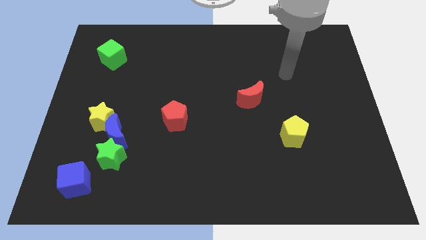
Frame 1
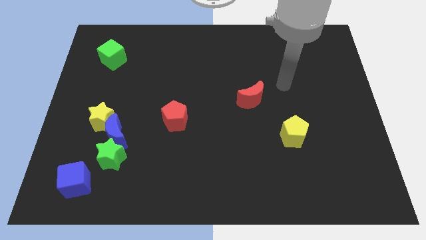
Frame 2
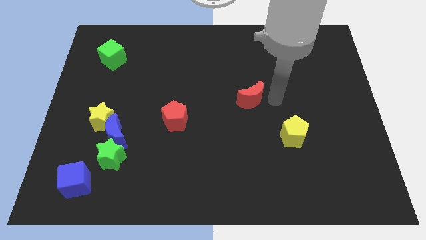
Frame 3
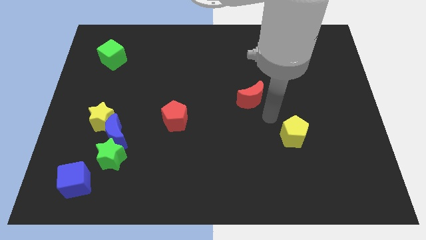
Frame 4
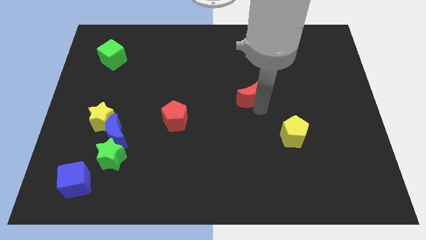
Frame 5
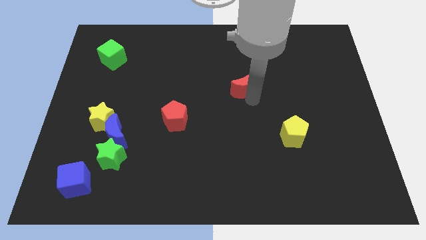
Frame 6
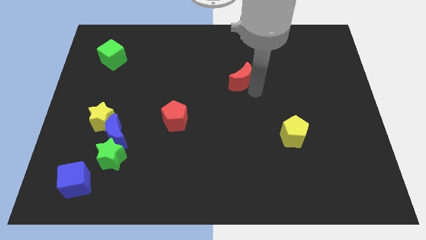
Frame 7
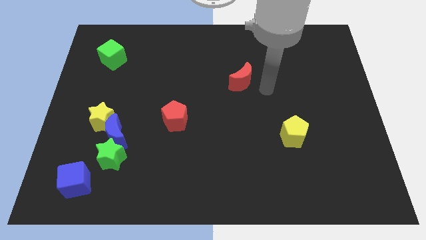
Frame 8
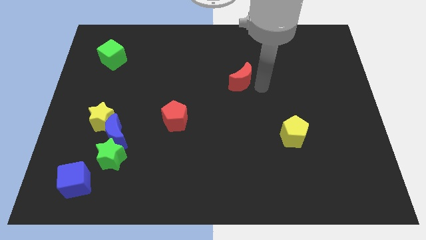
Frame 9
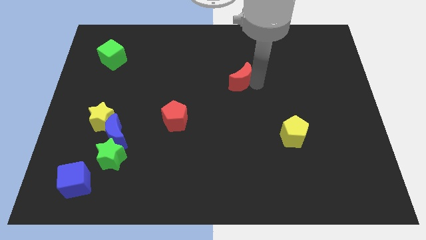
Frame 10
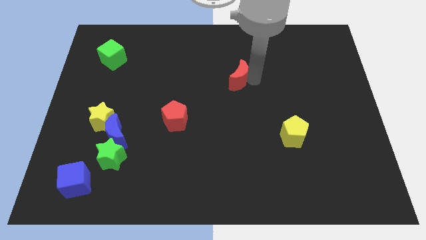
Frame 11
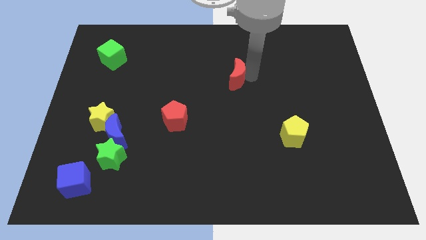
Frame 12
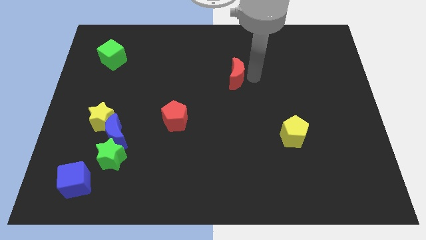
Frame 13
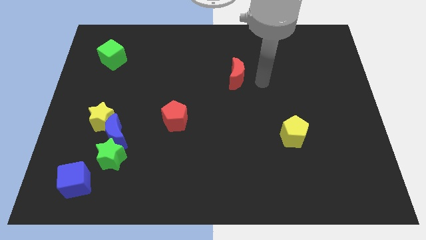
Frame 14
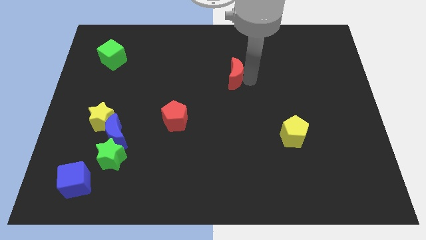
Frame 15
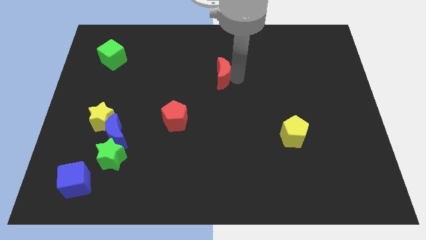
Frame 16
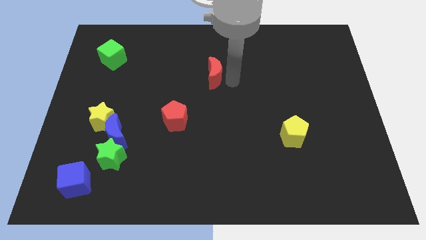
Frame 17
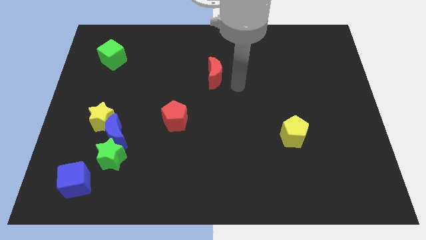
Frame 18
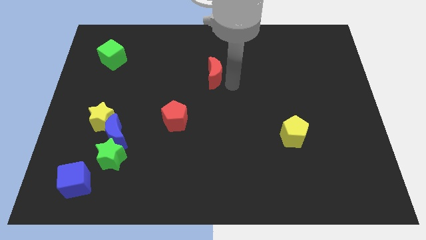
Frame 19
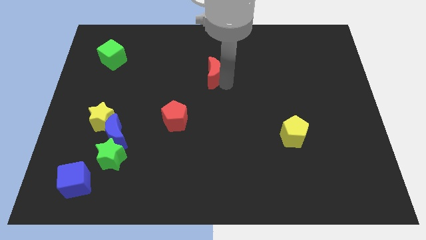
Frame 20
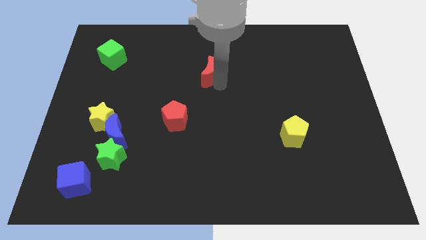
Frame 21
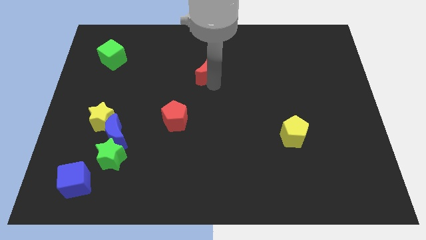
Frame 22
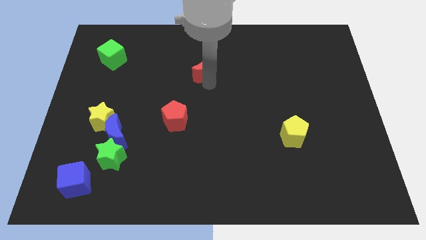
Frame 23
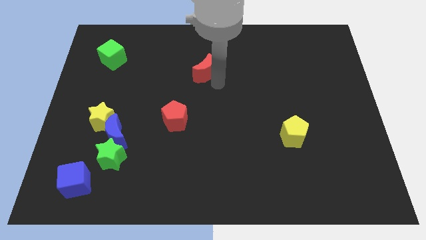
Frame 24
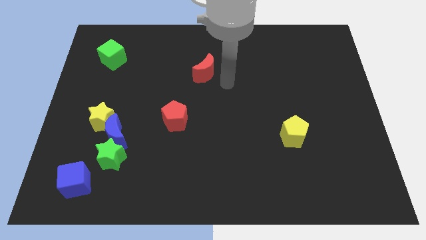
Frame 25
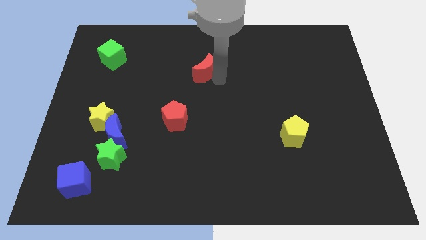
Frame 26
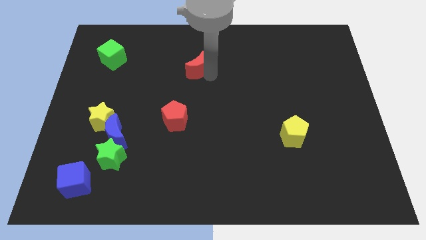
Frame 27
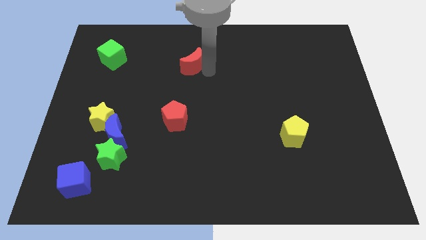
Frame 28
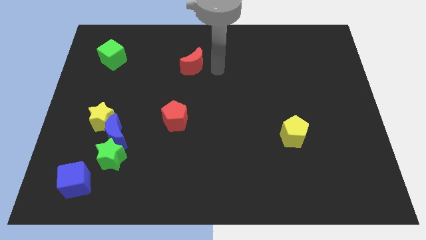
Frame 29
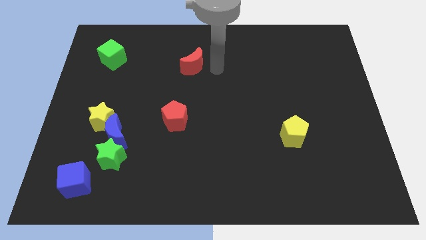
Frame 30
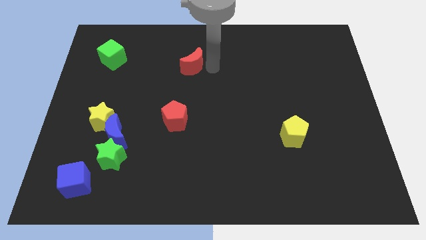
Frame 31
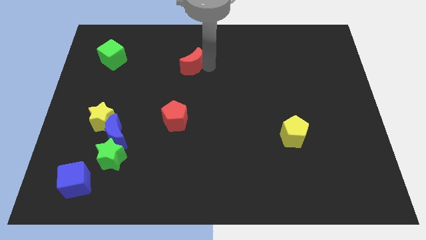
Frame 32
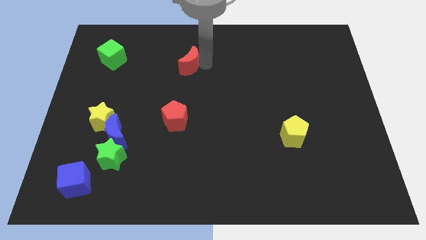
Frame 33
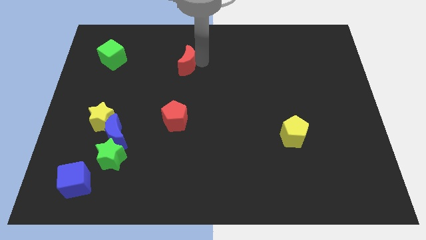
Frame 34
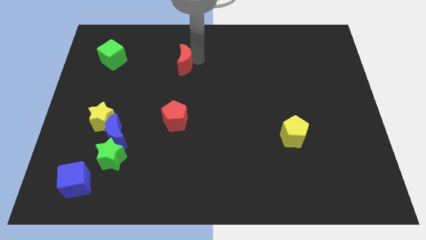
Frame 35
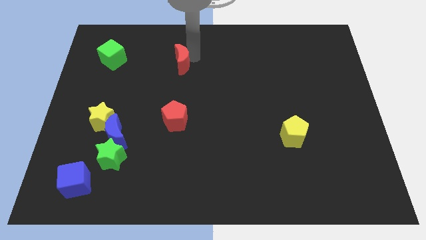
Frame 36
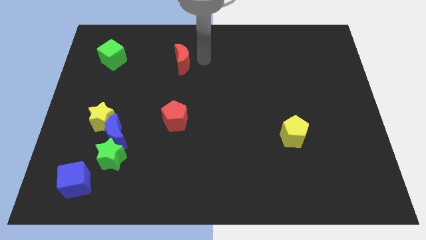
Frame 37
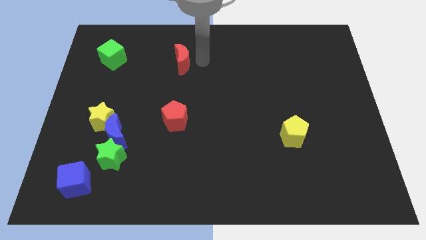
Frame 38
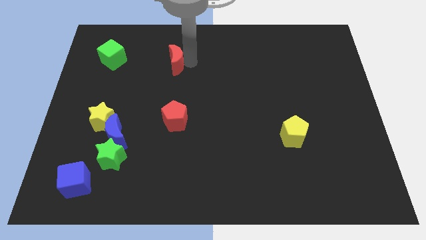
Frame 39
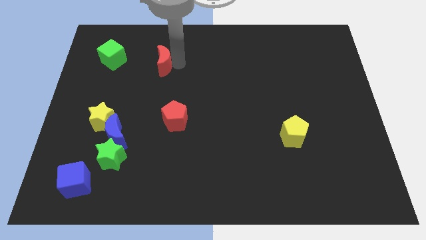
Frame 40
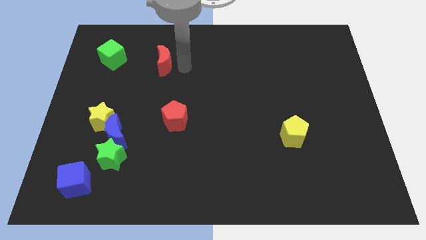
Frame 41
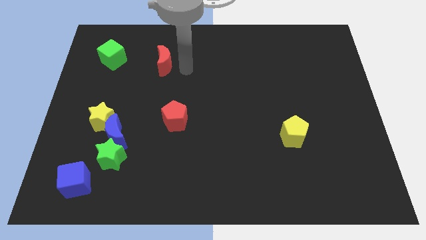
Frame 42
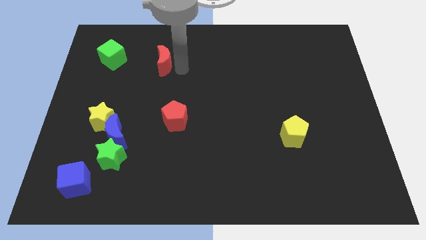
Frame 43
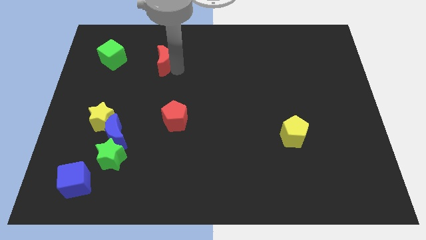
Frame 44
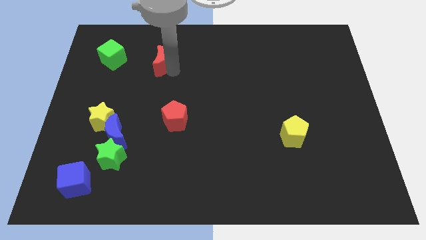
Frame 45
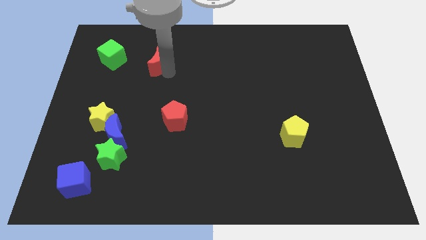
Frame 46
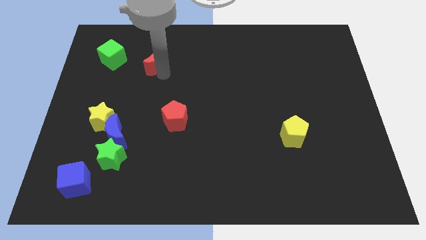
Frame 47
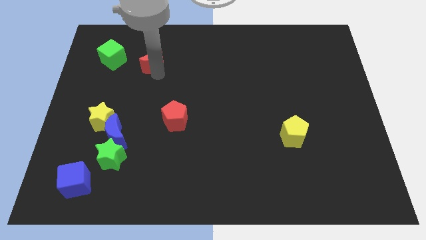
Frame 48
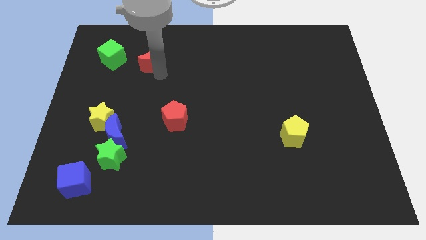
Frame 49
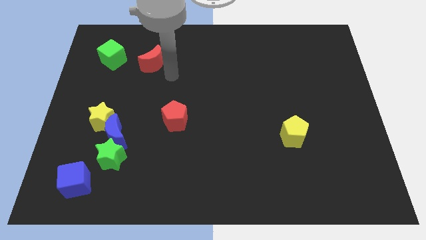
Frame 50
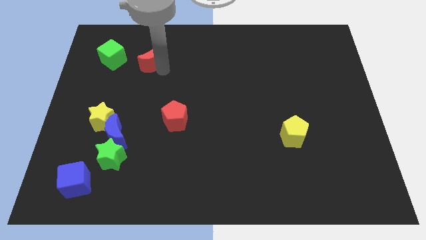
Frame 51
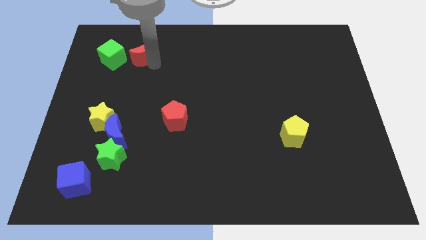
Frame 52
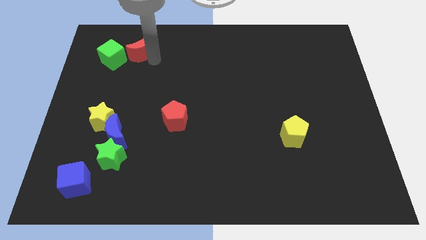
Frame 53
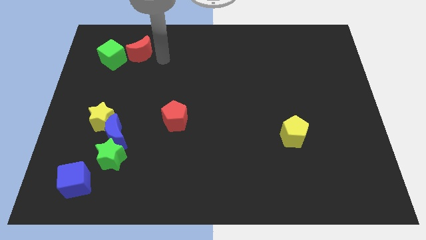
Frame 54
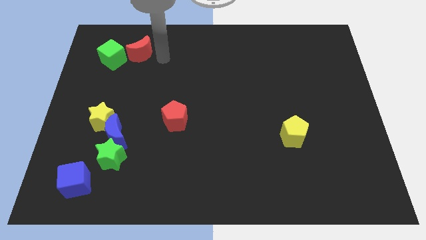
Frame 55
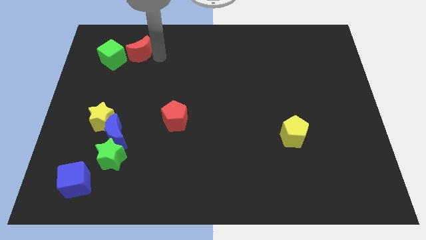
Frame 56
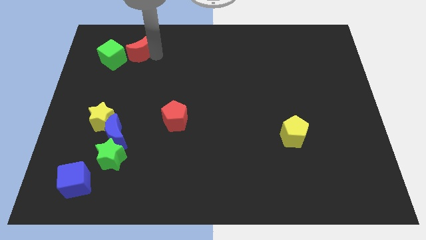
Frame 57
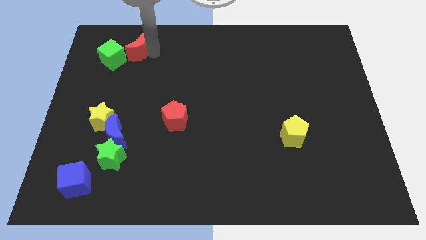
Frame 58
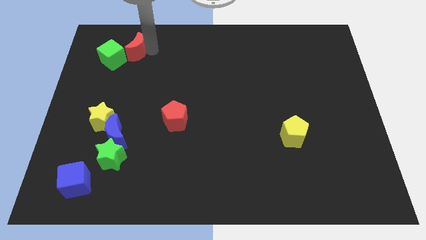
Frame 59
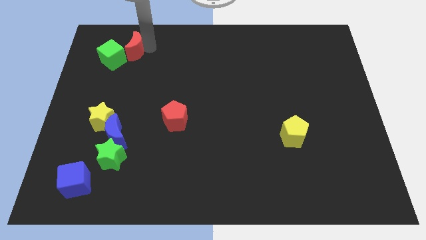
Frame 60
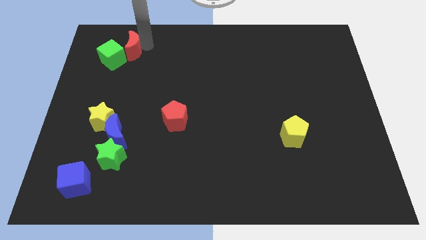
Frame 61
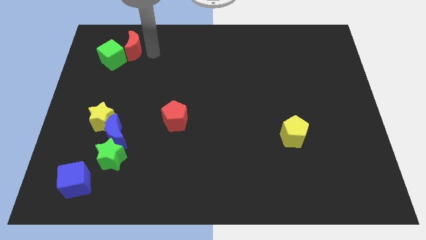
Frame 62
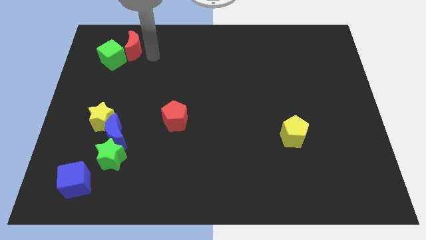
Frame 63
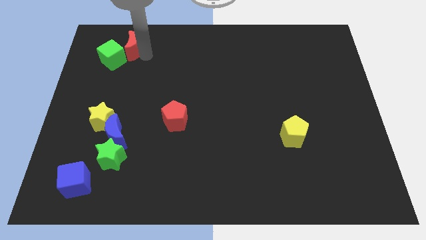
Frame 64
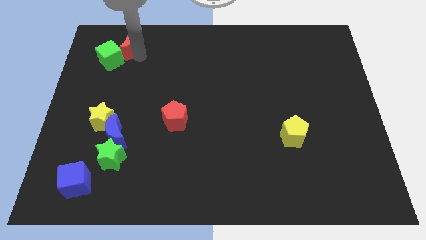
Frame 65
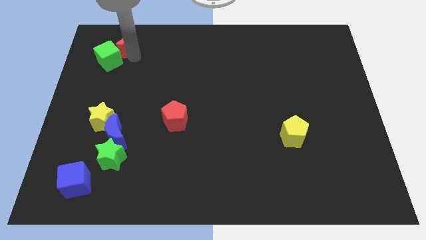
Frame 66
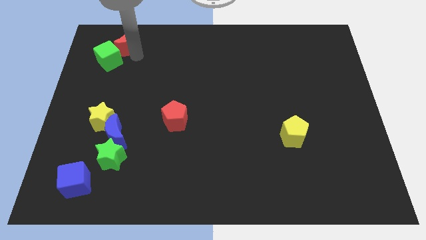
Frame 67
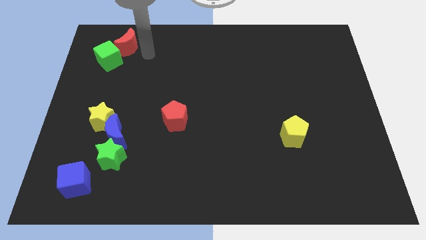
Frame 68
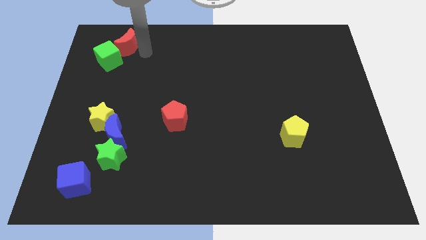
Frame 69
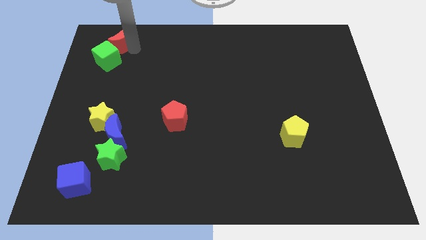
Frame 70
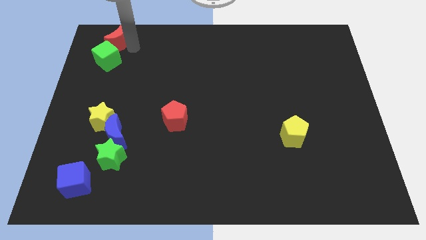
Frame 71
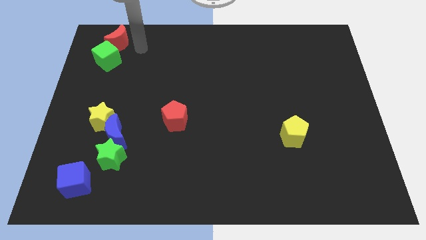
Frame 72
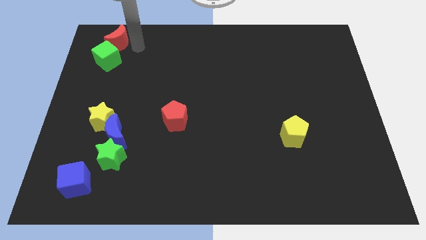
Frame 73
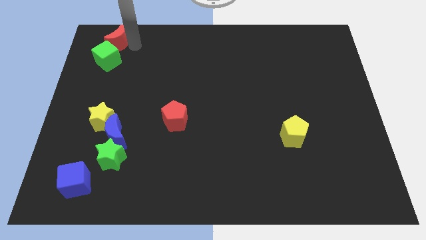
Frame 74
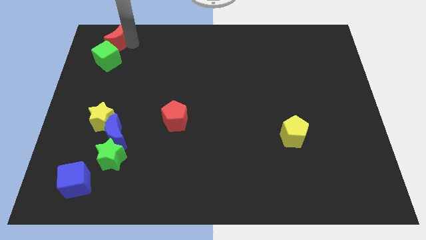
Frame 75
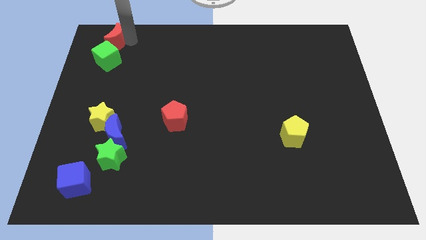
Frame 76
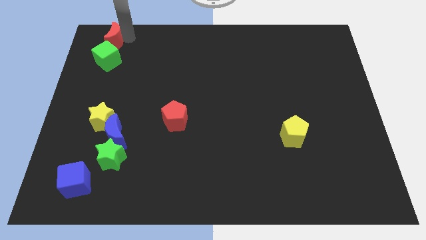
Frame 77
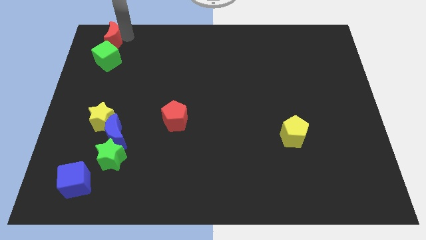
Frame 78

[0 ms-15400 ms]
slide the red moon to the top left corner
